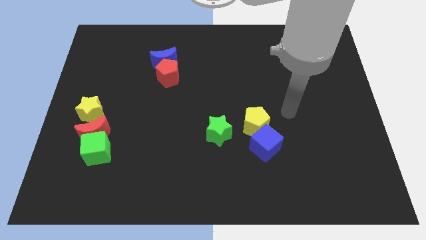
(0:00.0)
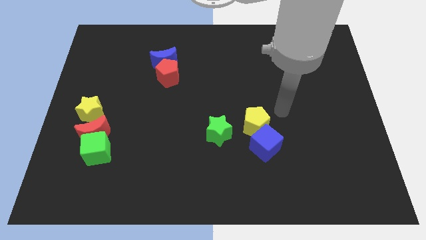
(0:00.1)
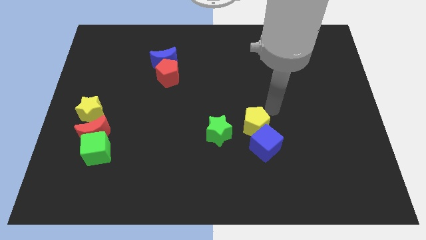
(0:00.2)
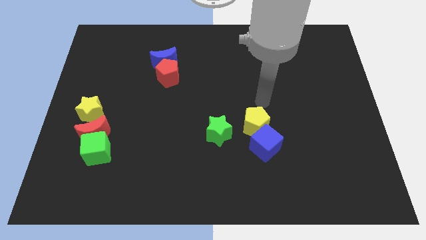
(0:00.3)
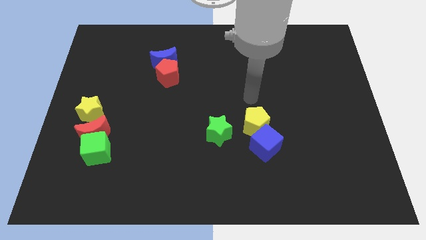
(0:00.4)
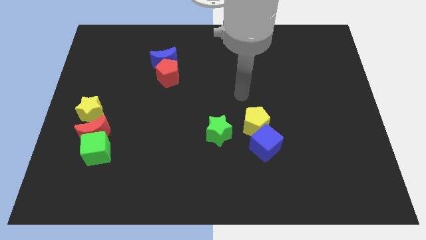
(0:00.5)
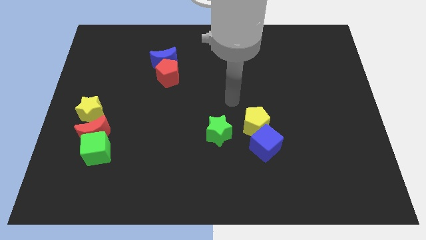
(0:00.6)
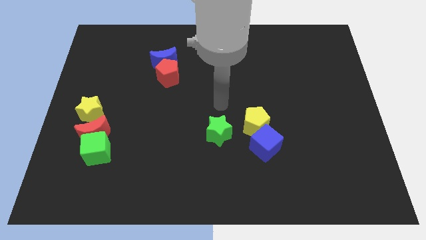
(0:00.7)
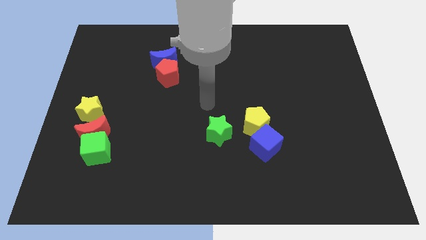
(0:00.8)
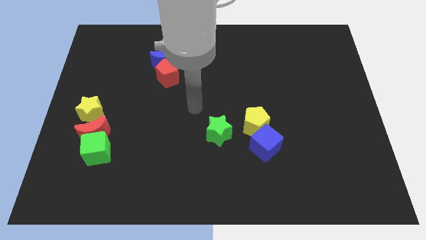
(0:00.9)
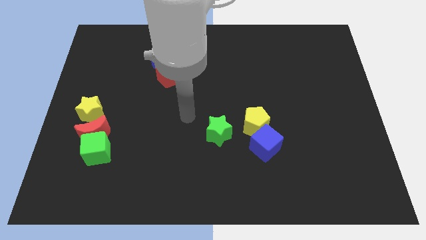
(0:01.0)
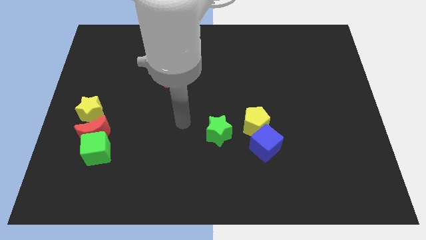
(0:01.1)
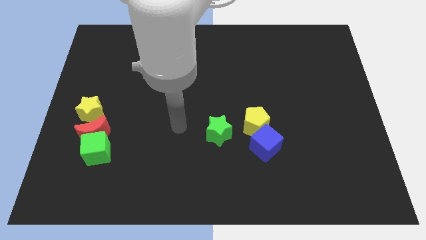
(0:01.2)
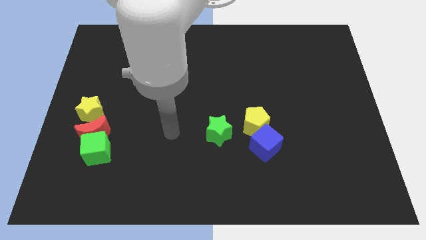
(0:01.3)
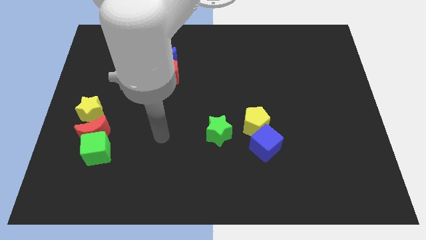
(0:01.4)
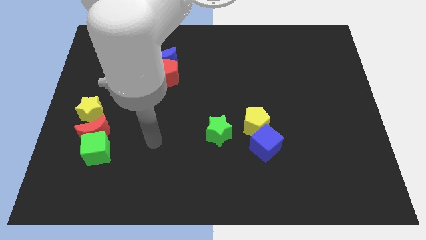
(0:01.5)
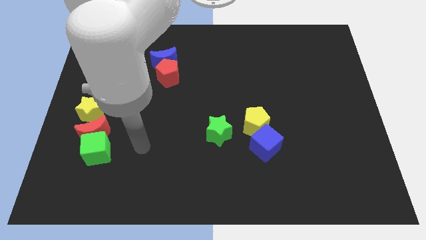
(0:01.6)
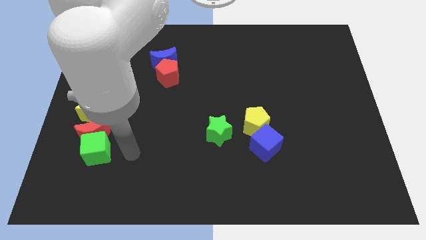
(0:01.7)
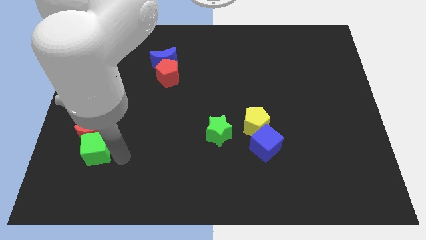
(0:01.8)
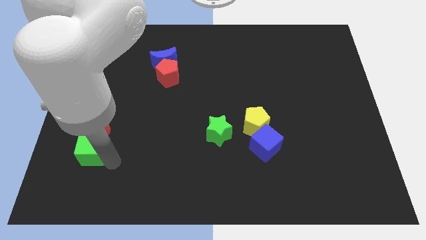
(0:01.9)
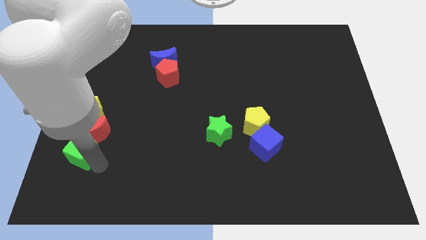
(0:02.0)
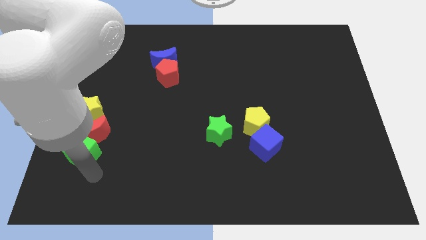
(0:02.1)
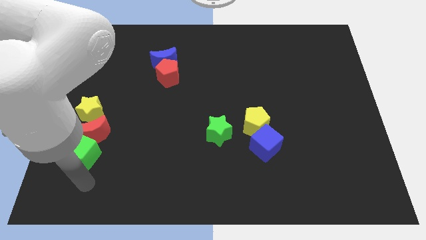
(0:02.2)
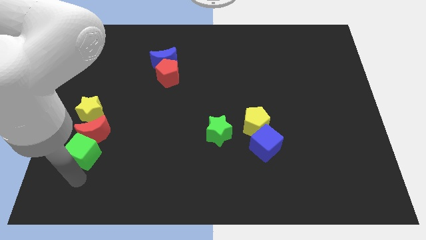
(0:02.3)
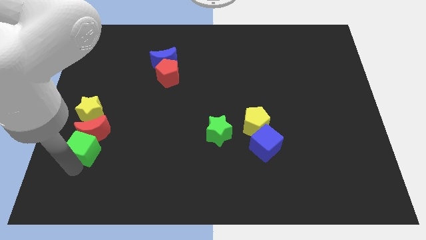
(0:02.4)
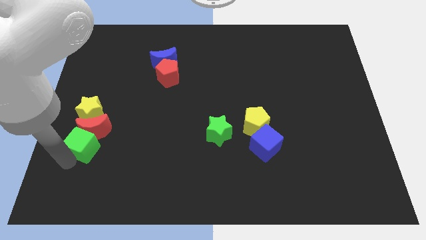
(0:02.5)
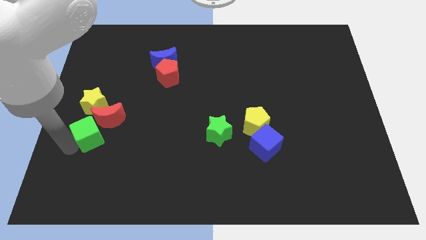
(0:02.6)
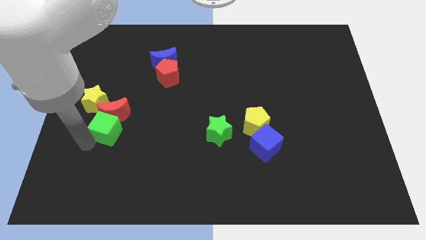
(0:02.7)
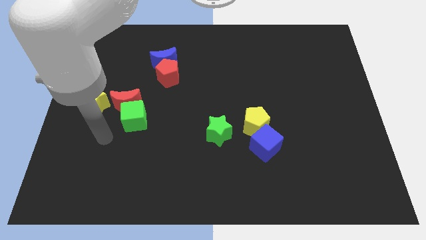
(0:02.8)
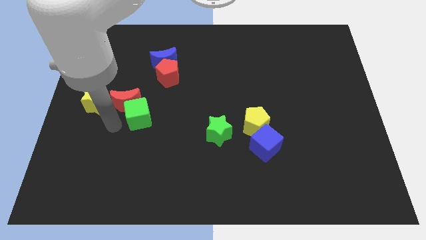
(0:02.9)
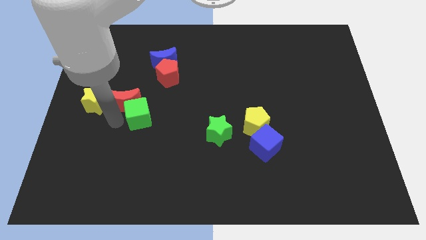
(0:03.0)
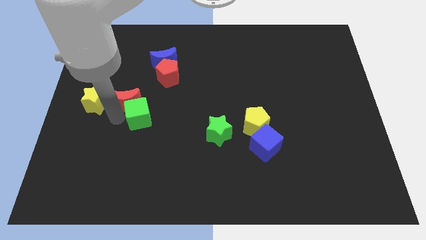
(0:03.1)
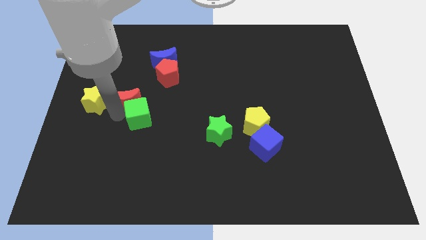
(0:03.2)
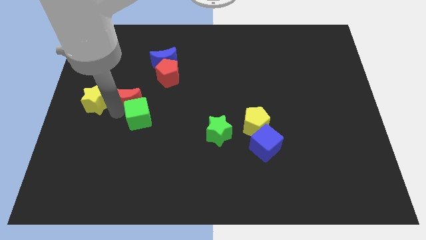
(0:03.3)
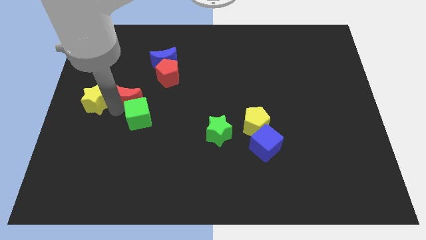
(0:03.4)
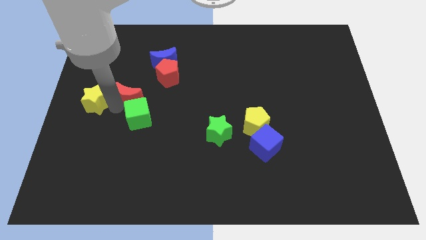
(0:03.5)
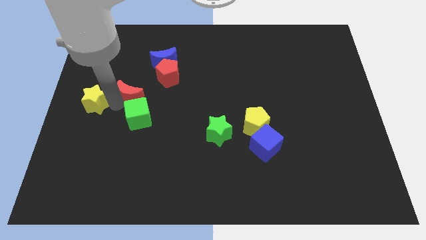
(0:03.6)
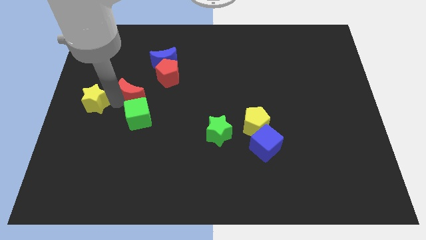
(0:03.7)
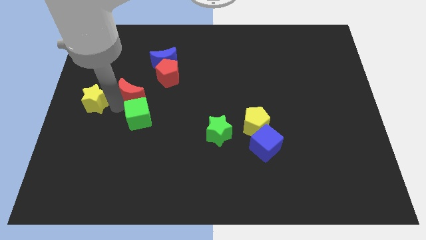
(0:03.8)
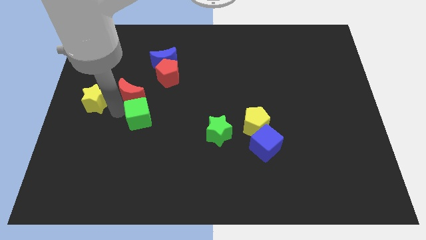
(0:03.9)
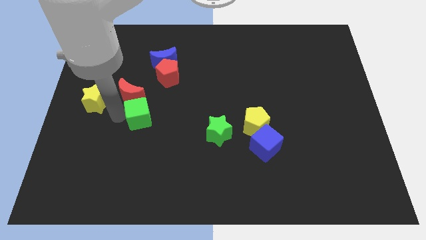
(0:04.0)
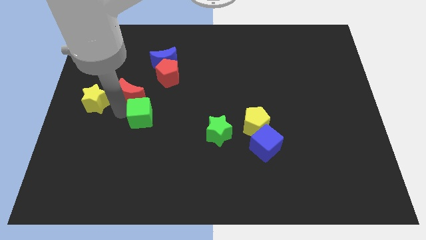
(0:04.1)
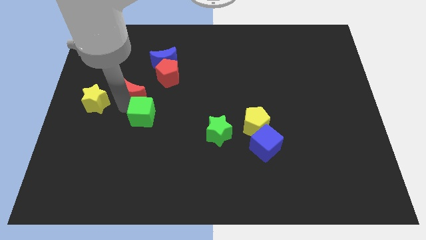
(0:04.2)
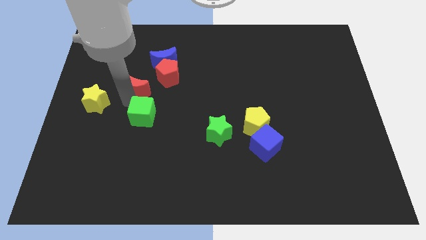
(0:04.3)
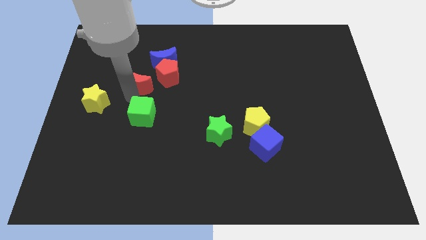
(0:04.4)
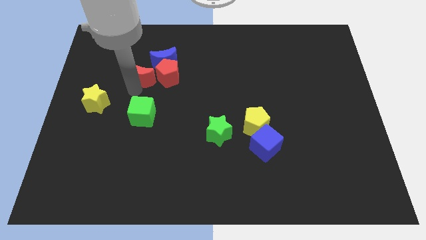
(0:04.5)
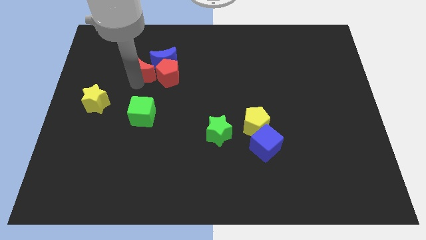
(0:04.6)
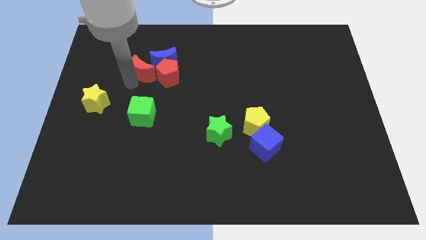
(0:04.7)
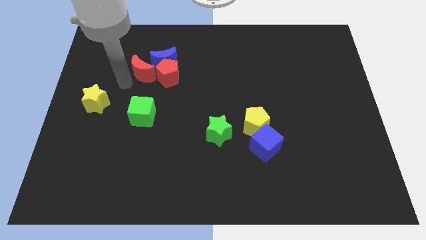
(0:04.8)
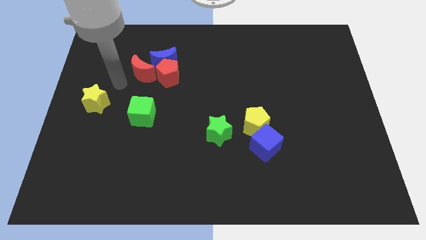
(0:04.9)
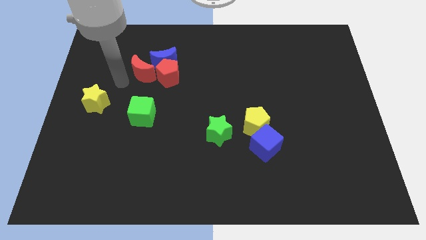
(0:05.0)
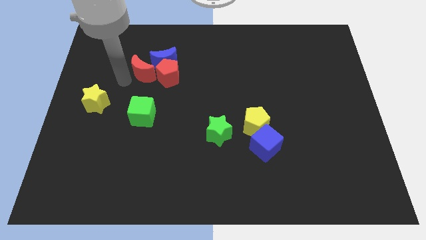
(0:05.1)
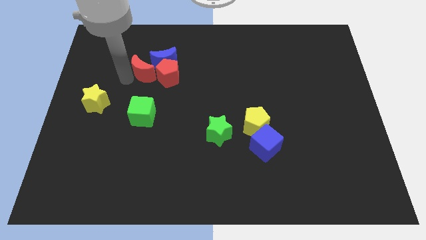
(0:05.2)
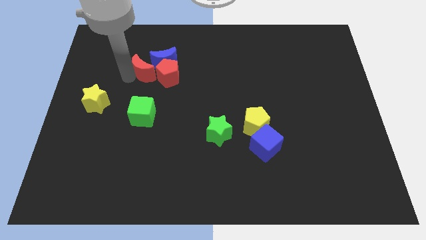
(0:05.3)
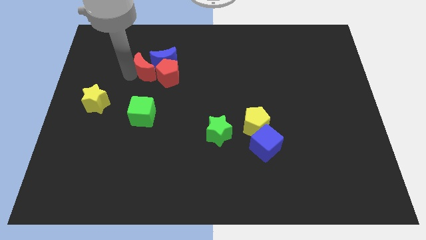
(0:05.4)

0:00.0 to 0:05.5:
push the red moon close to the blue moon

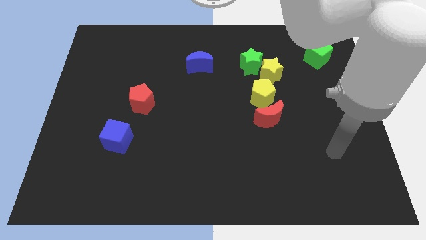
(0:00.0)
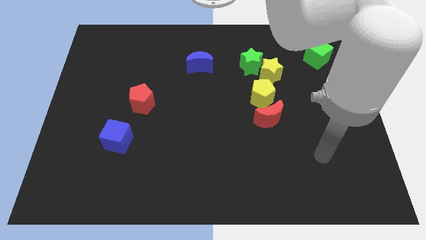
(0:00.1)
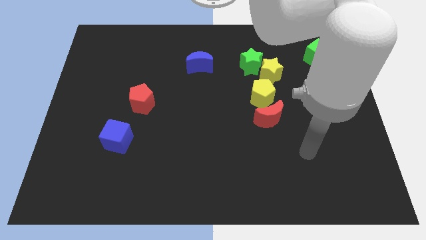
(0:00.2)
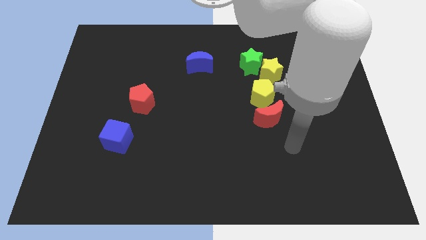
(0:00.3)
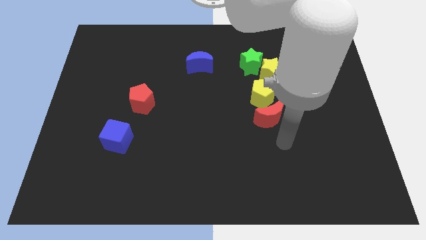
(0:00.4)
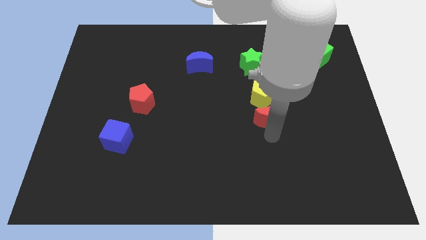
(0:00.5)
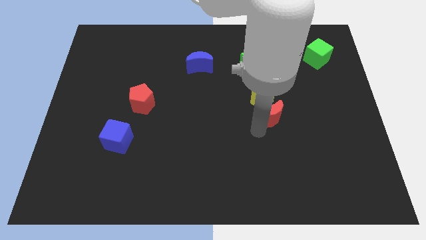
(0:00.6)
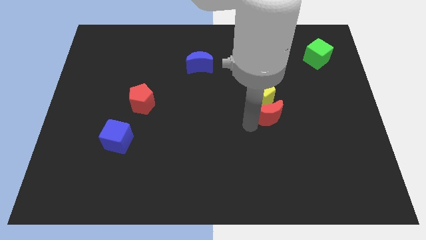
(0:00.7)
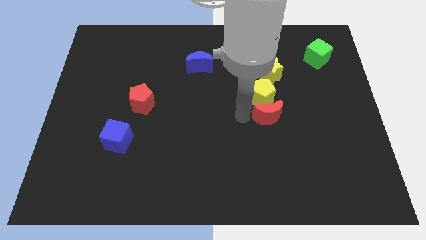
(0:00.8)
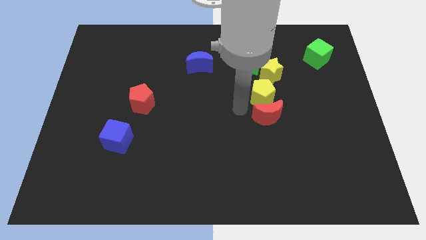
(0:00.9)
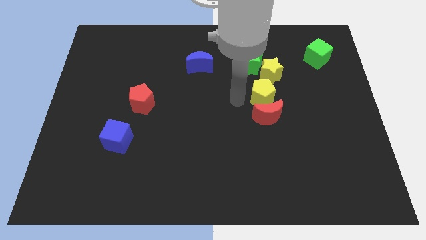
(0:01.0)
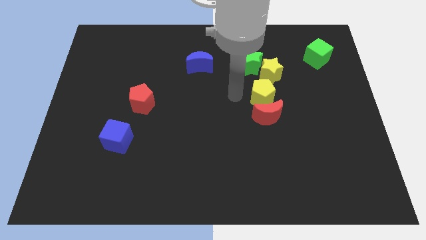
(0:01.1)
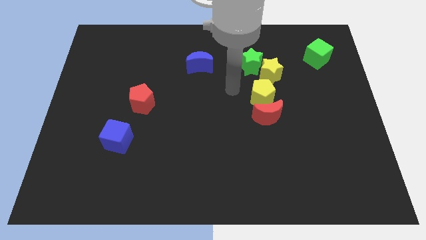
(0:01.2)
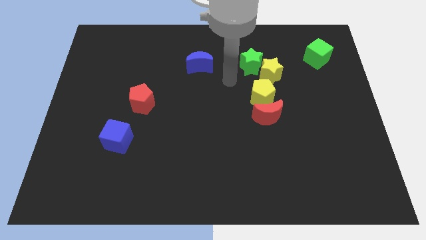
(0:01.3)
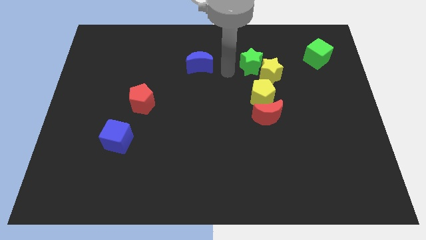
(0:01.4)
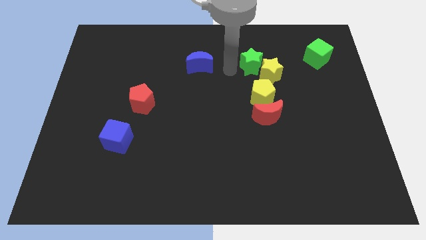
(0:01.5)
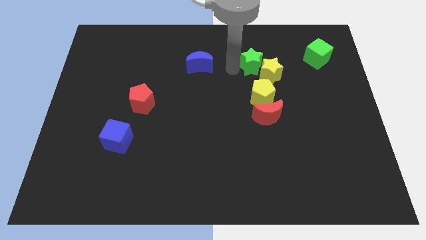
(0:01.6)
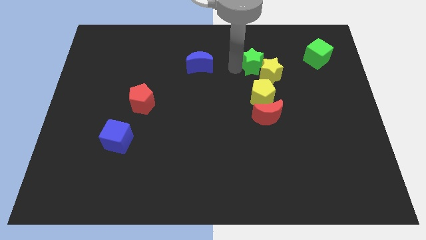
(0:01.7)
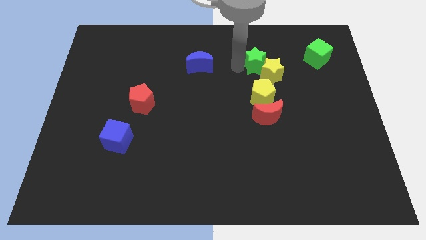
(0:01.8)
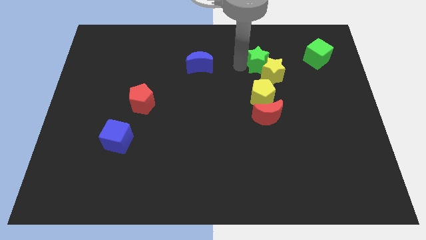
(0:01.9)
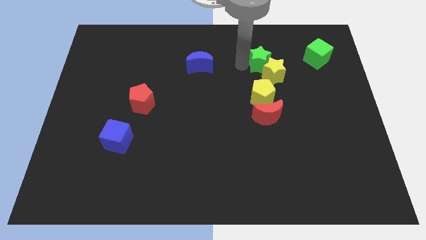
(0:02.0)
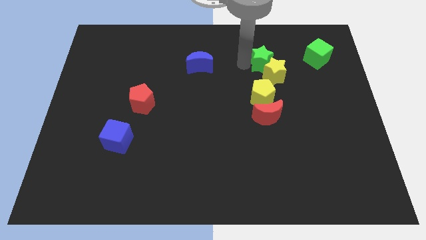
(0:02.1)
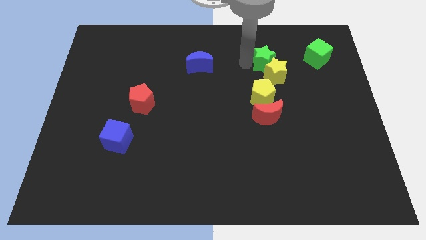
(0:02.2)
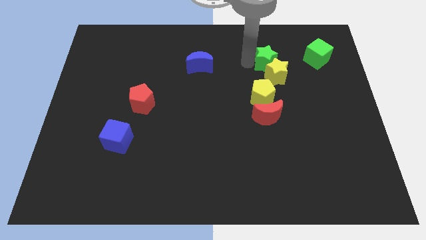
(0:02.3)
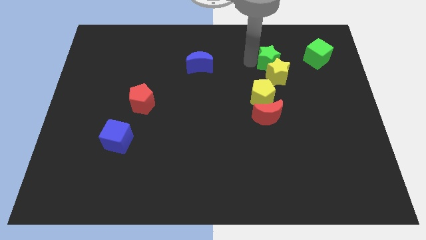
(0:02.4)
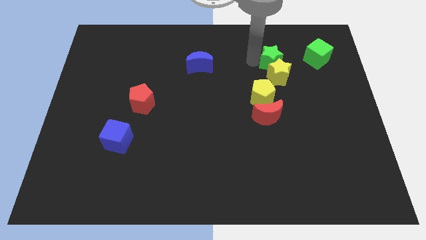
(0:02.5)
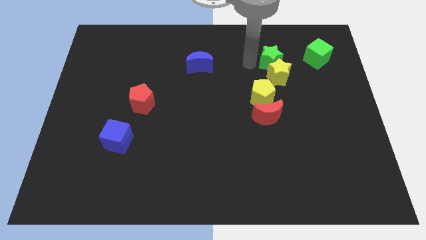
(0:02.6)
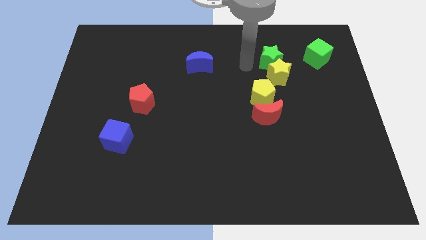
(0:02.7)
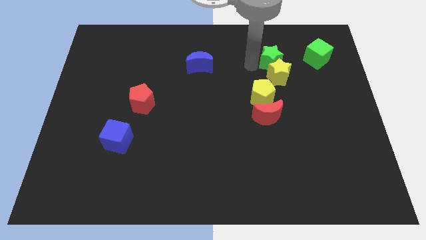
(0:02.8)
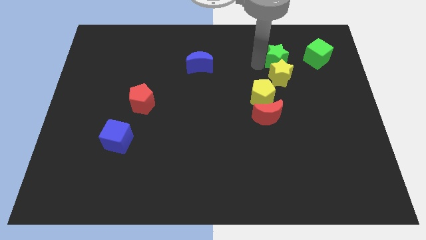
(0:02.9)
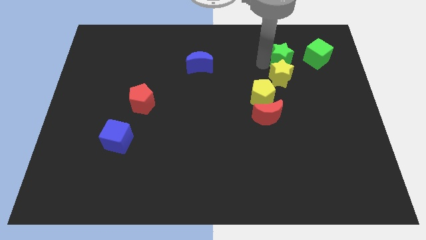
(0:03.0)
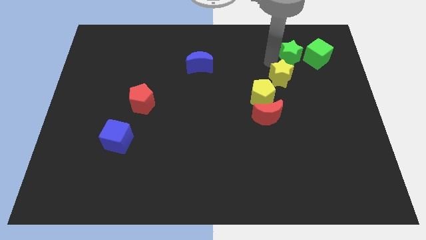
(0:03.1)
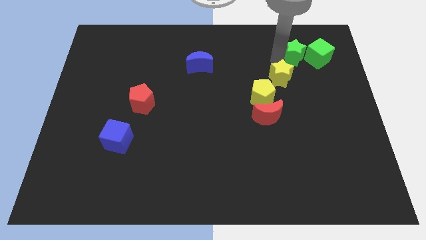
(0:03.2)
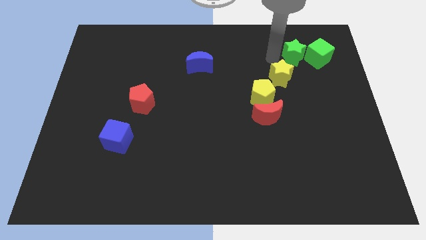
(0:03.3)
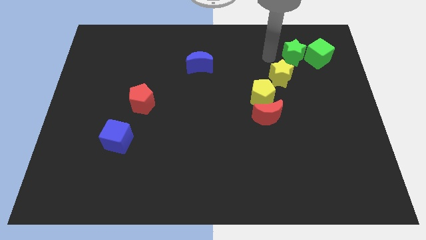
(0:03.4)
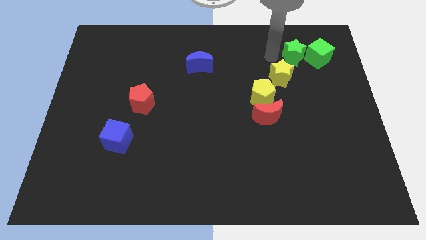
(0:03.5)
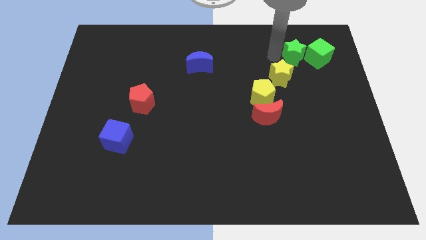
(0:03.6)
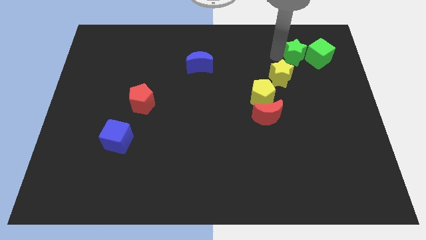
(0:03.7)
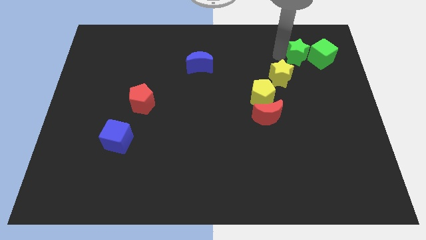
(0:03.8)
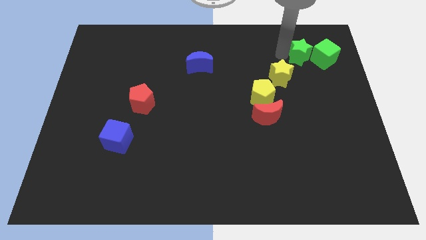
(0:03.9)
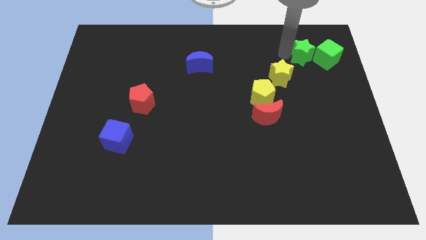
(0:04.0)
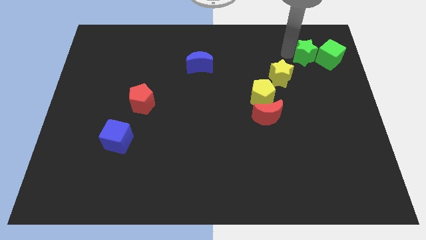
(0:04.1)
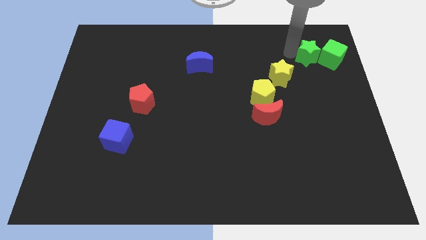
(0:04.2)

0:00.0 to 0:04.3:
put the green star next to the green cube
